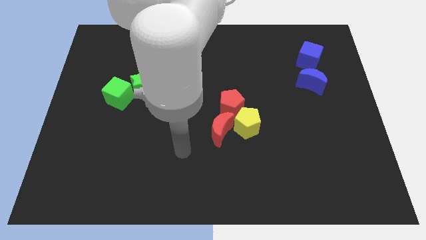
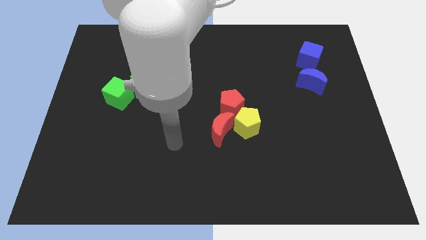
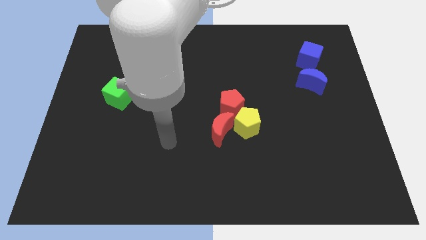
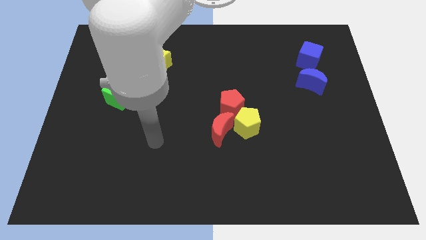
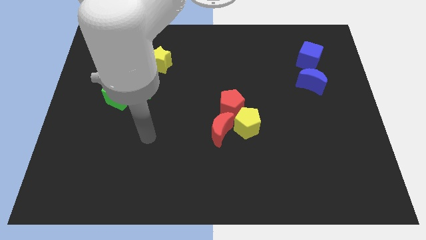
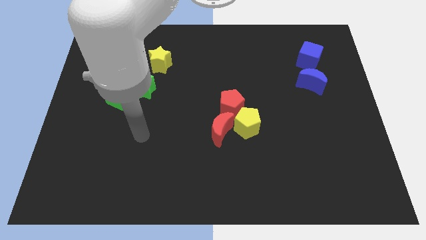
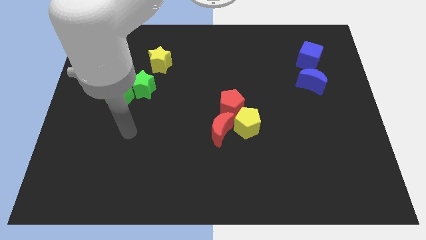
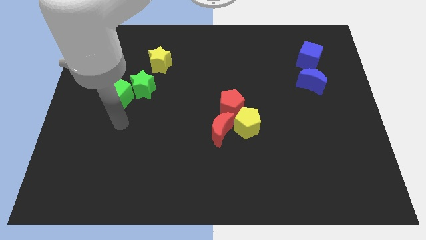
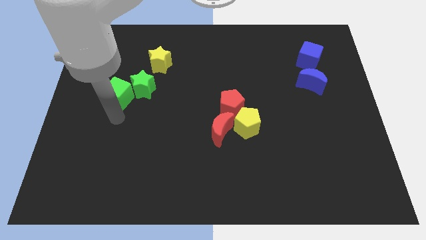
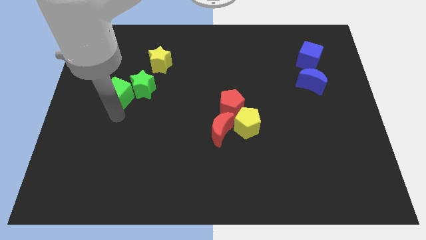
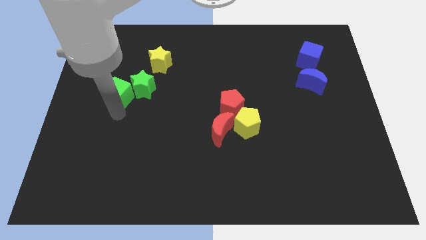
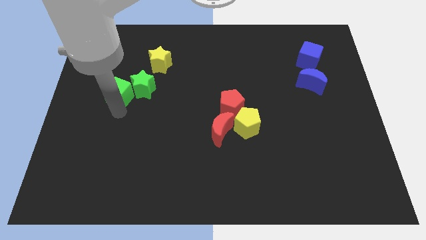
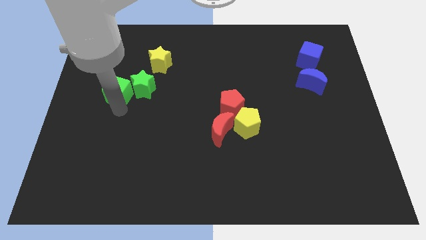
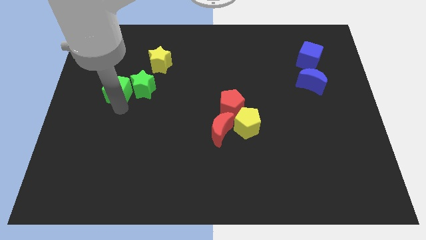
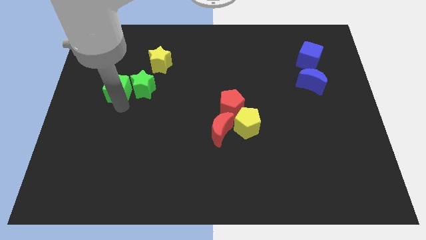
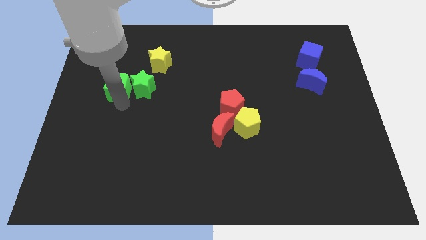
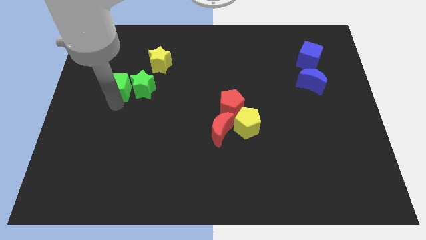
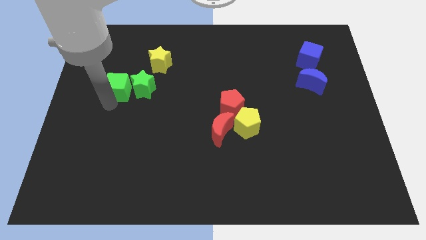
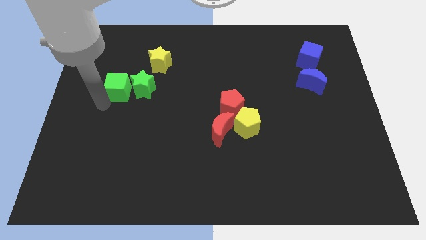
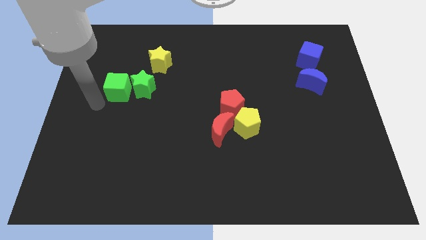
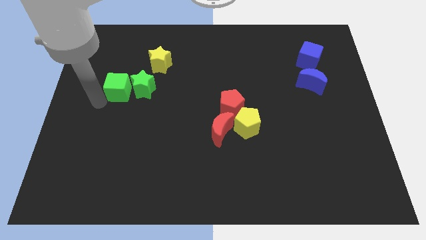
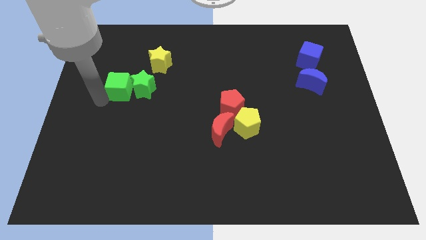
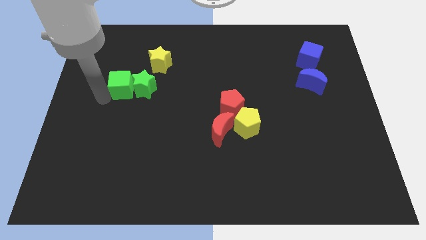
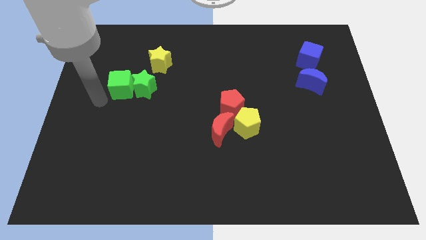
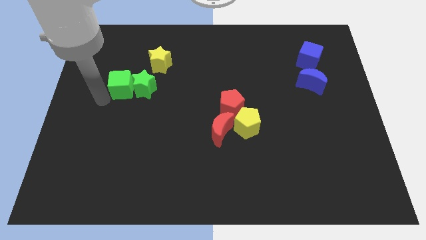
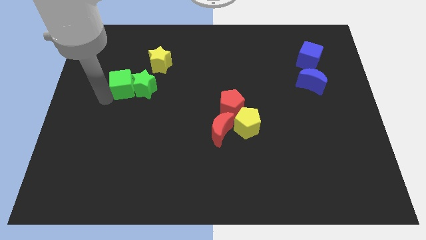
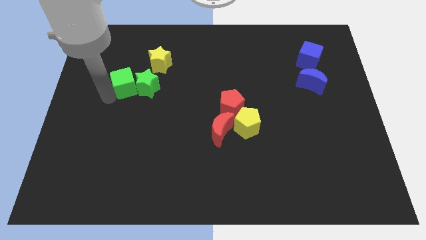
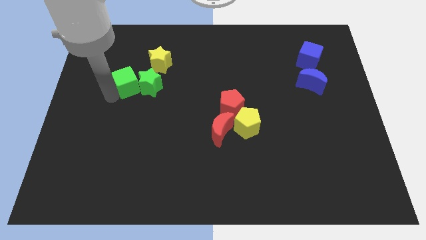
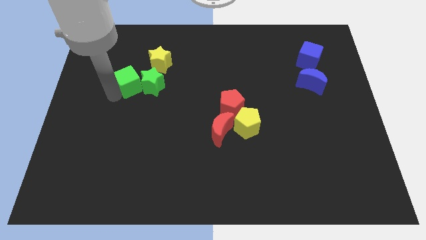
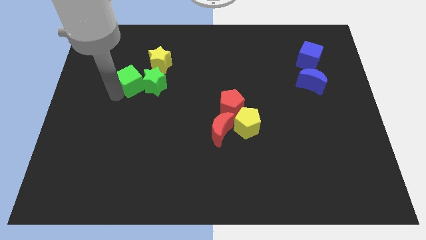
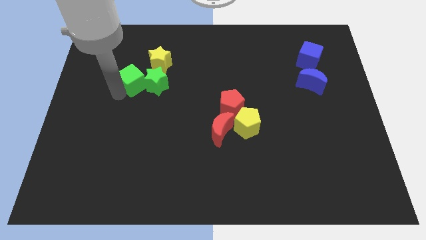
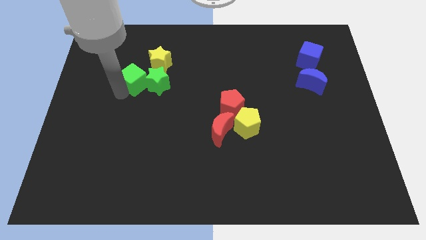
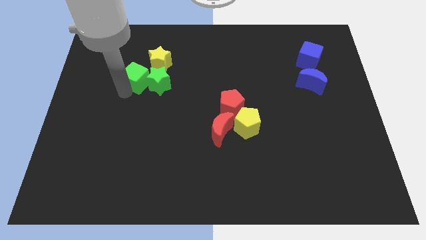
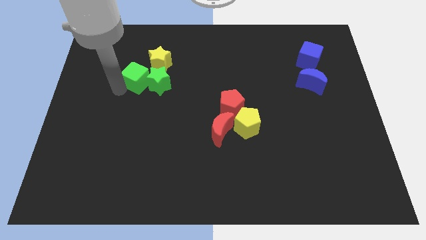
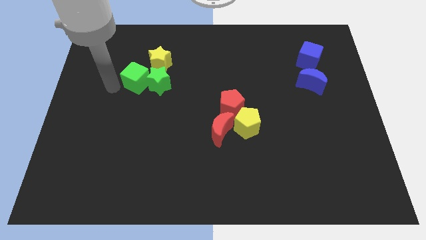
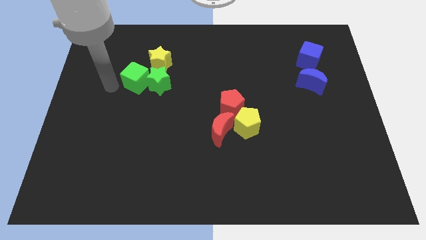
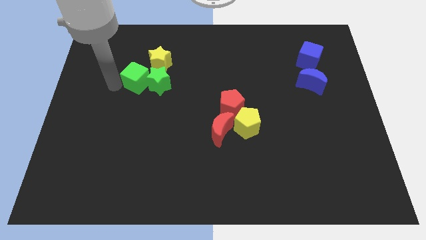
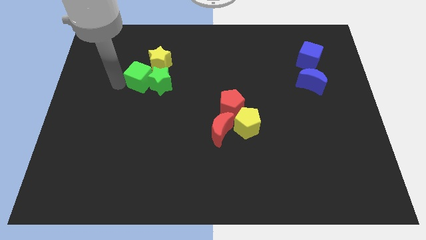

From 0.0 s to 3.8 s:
slightly push the green cube upwards and then to the right

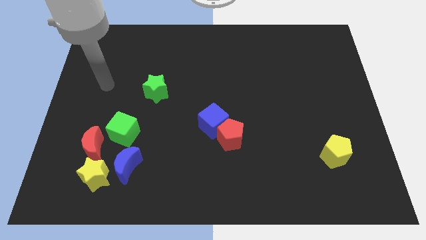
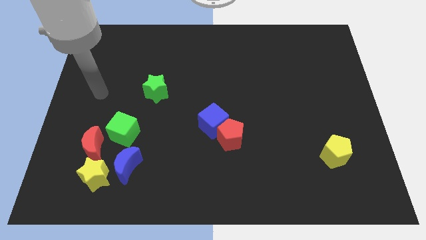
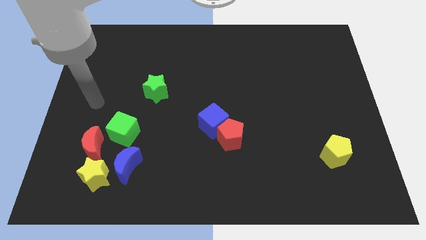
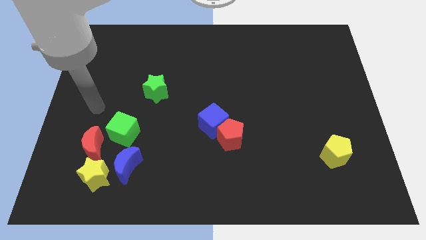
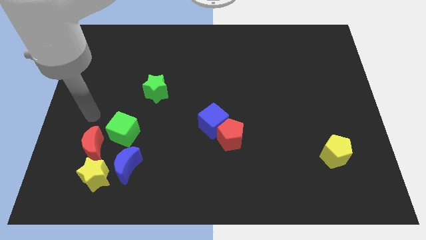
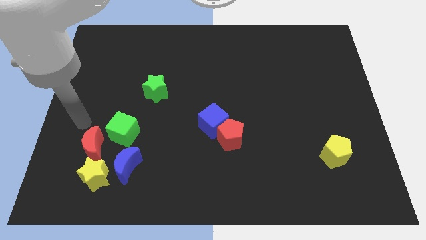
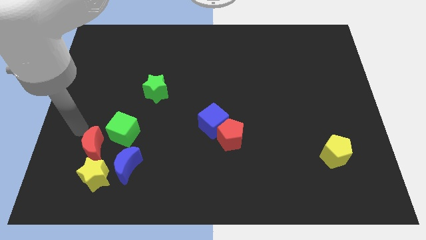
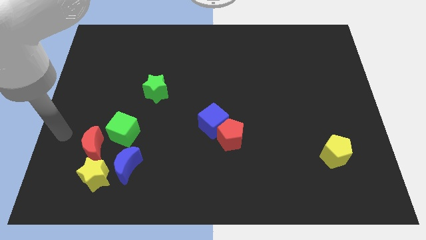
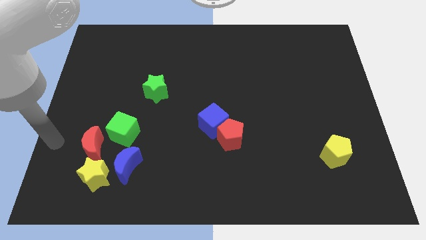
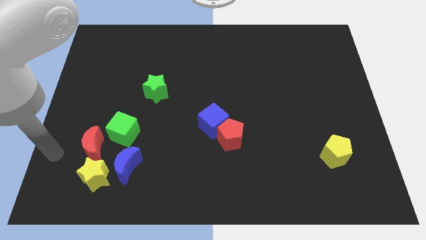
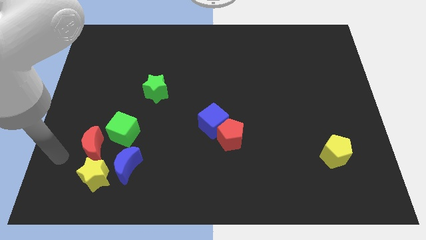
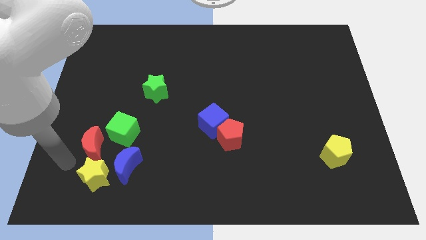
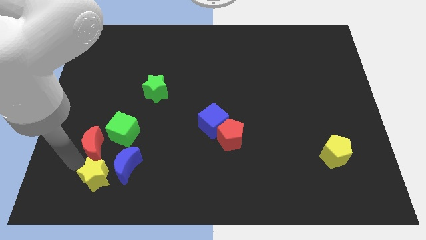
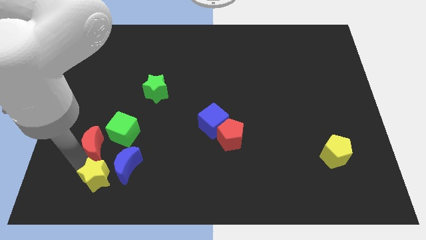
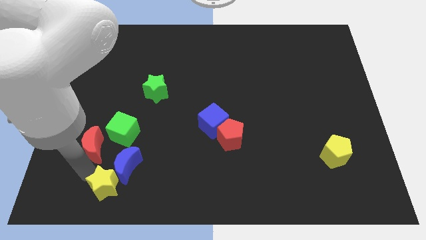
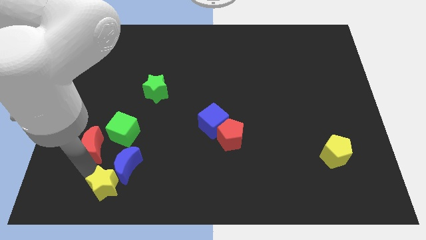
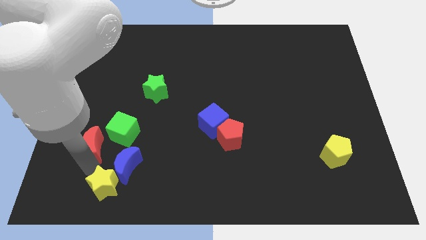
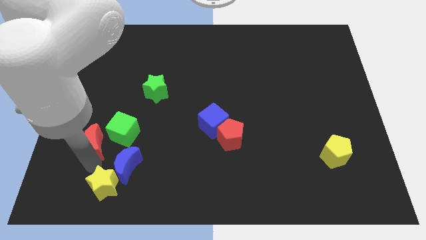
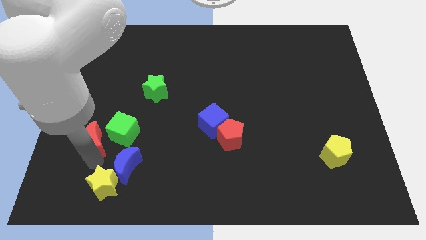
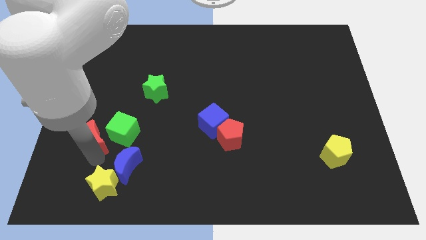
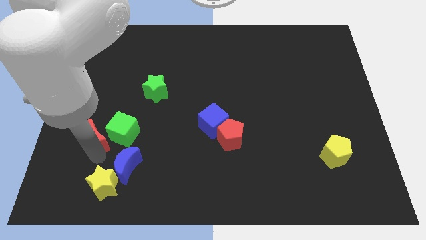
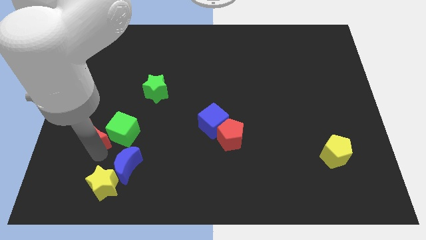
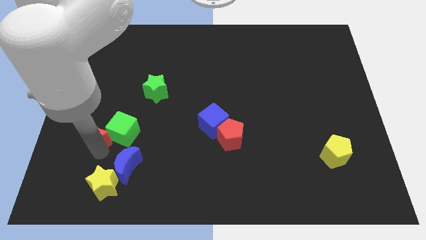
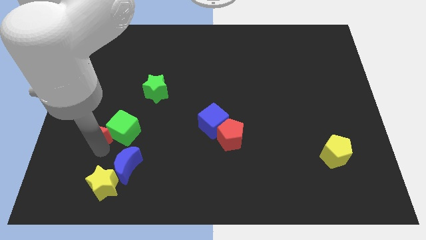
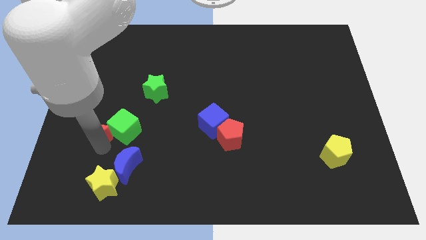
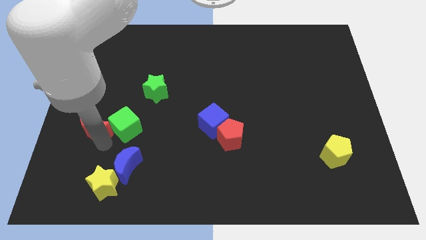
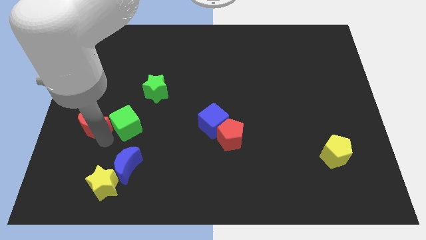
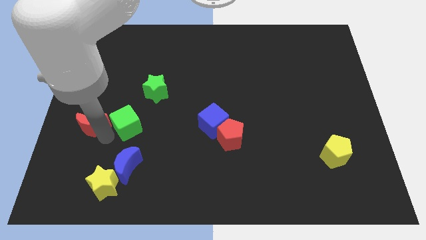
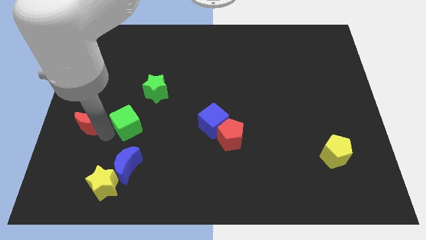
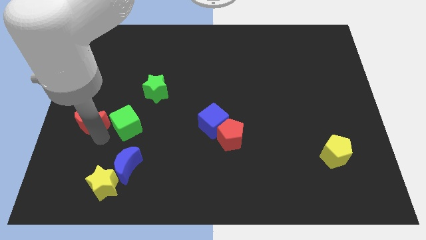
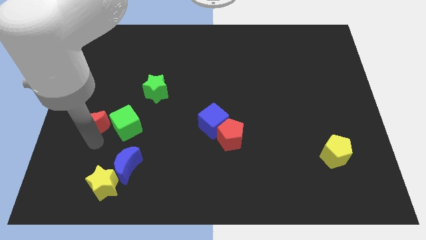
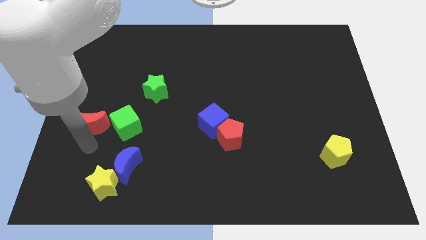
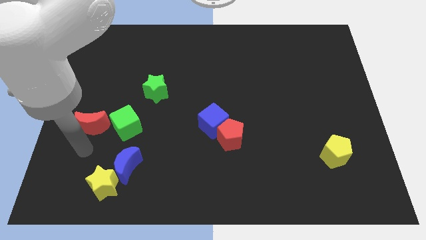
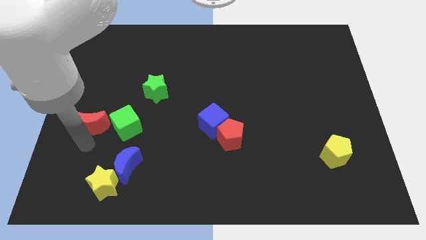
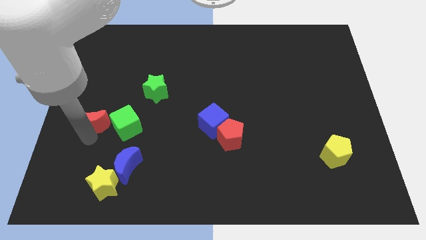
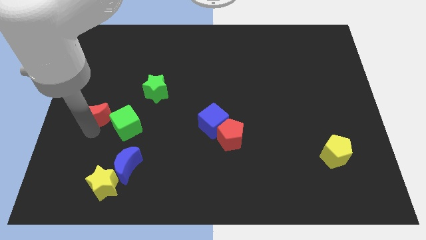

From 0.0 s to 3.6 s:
slightly slide the red moon up

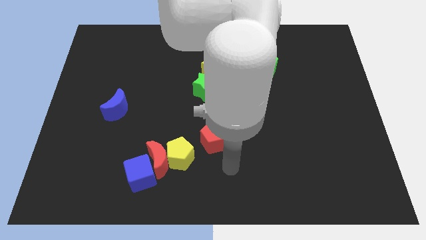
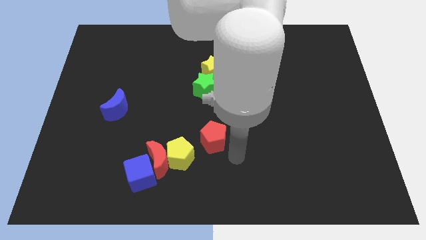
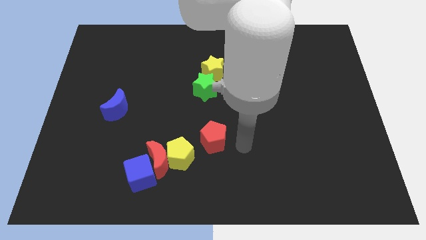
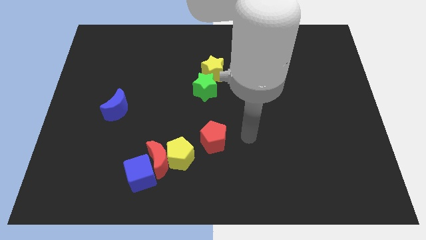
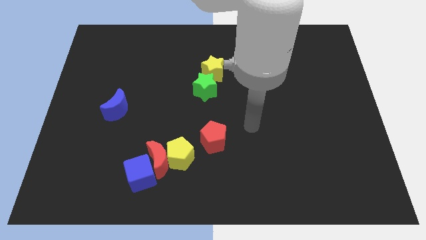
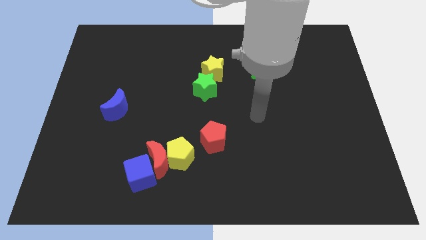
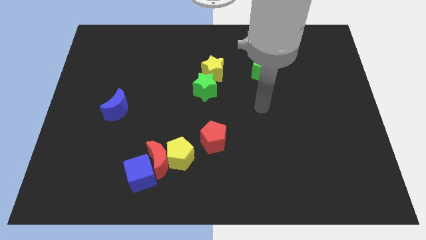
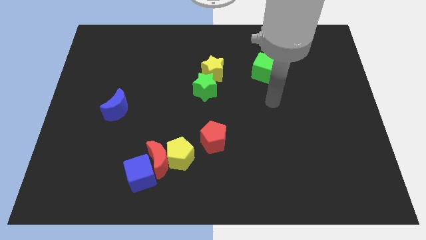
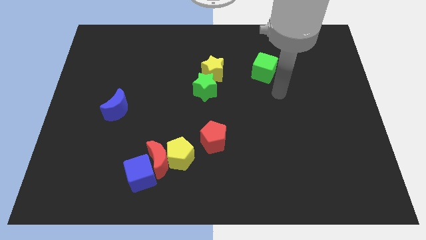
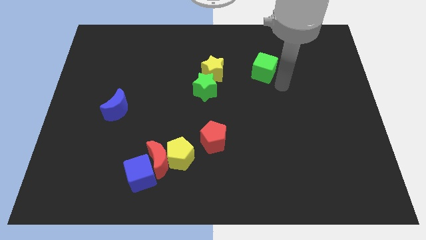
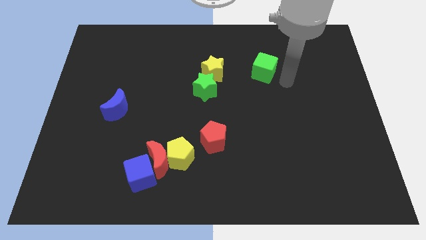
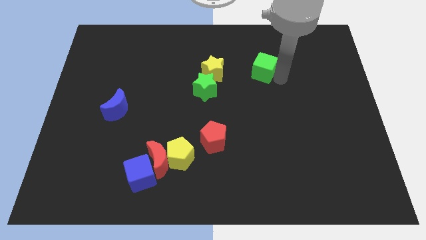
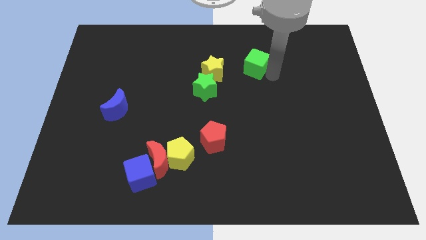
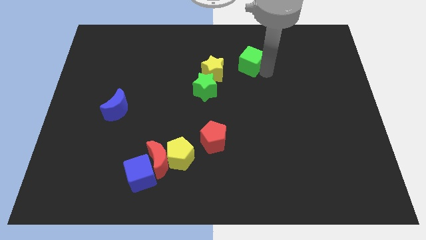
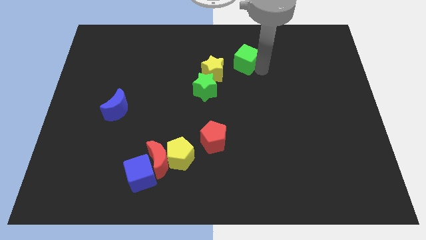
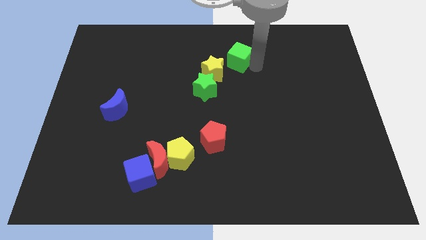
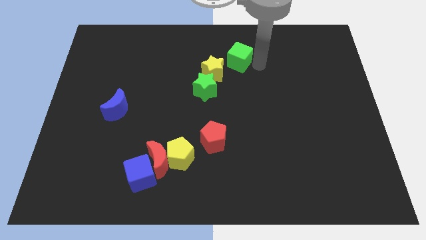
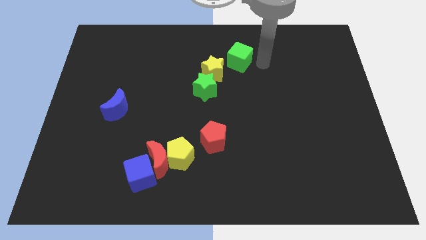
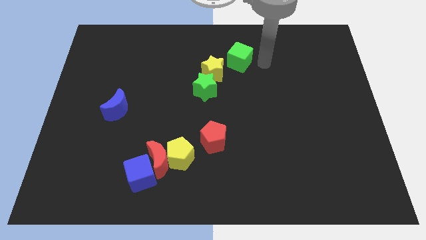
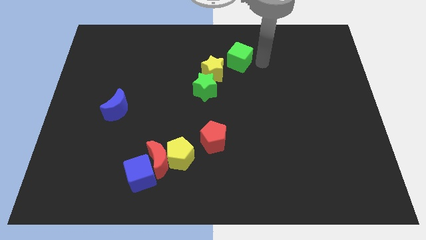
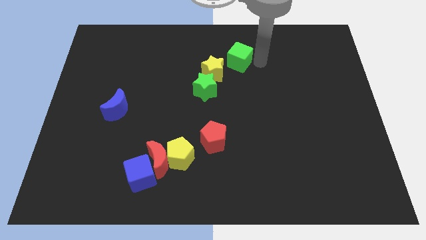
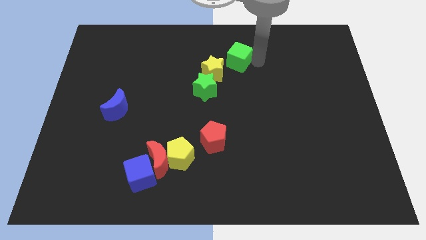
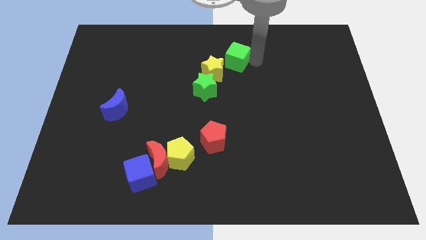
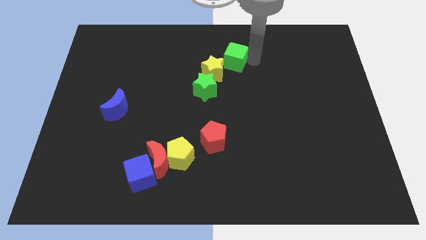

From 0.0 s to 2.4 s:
slightly push the green cube left
